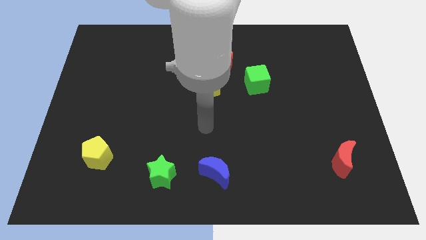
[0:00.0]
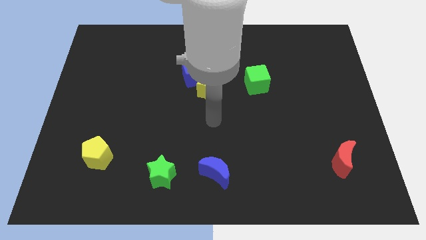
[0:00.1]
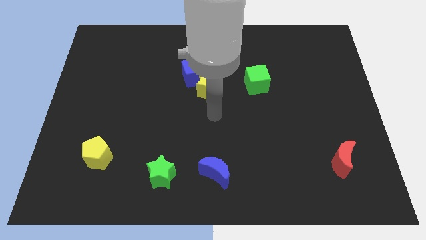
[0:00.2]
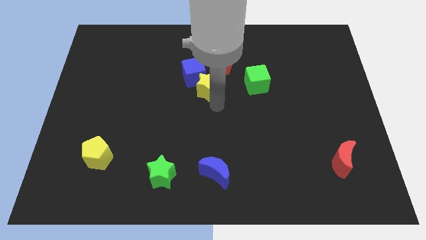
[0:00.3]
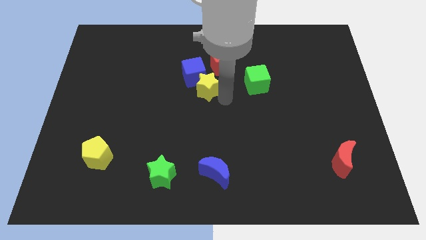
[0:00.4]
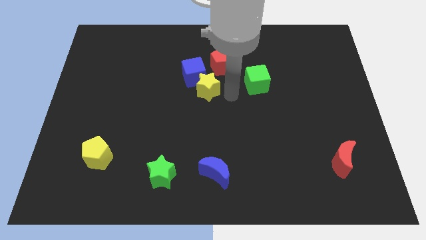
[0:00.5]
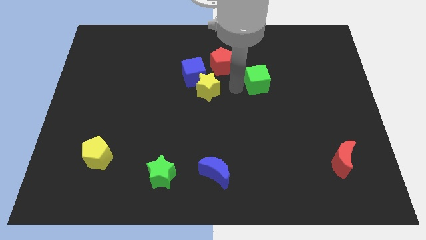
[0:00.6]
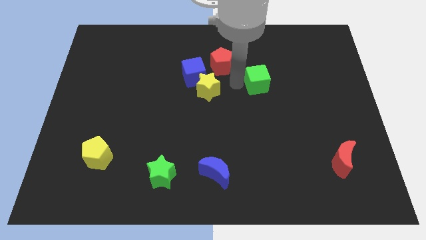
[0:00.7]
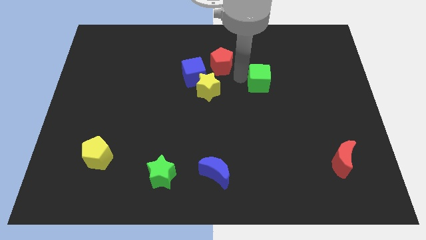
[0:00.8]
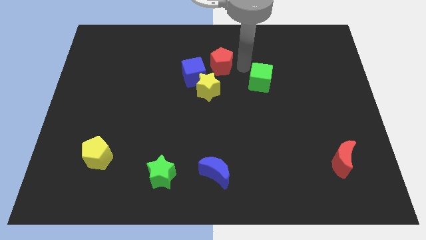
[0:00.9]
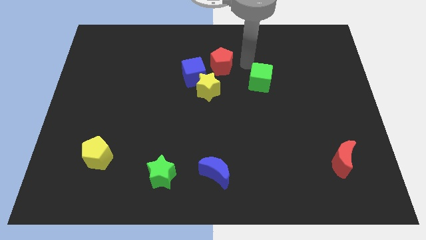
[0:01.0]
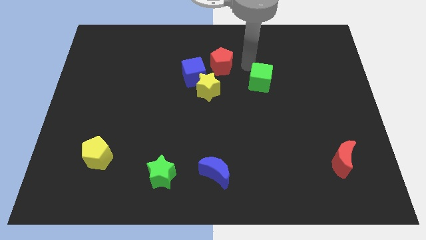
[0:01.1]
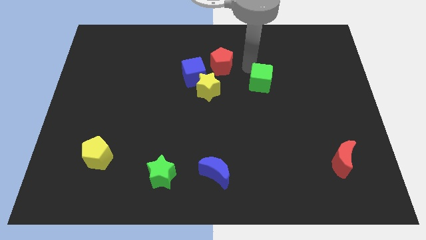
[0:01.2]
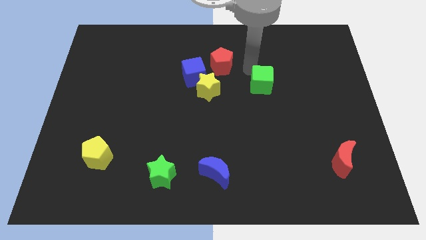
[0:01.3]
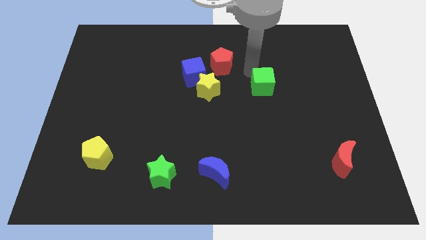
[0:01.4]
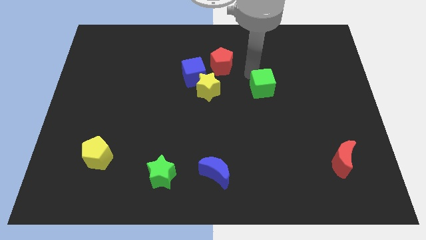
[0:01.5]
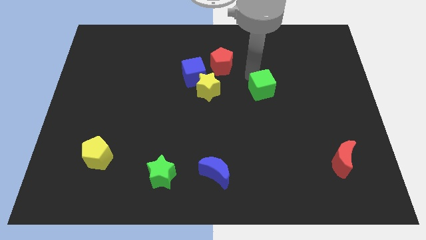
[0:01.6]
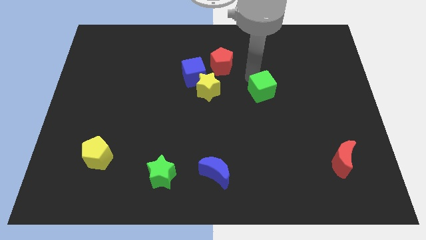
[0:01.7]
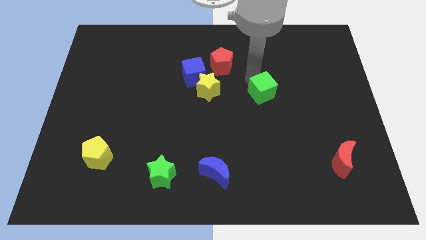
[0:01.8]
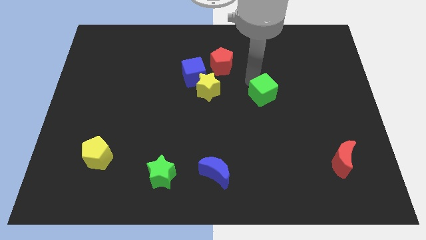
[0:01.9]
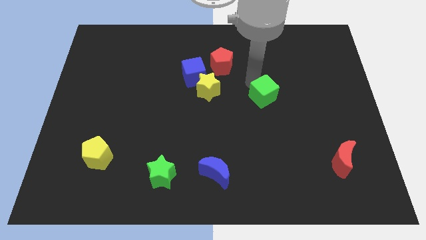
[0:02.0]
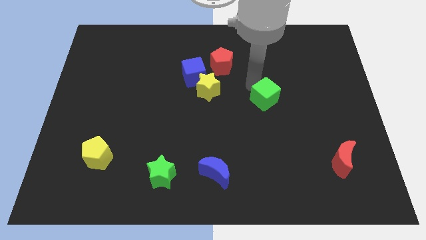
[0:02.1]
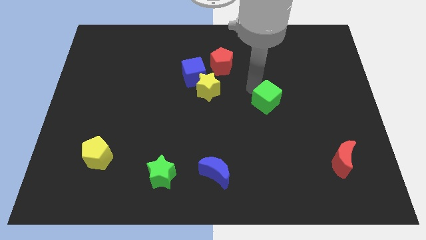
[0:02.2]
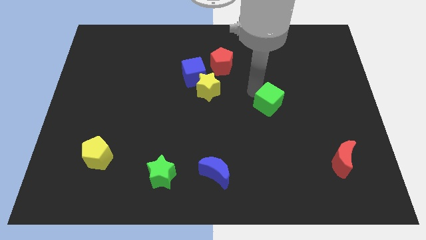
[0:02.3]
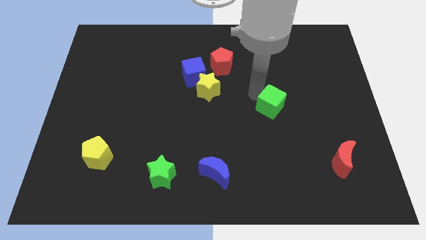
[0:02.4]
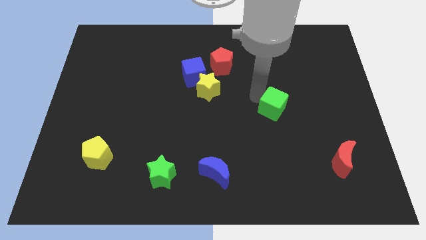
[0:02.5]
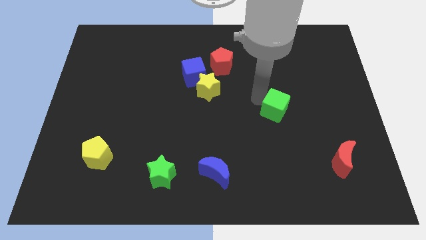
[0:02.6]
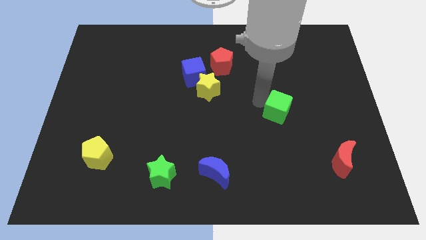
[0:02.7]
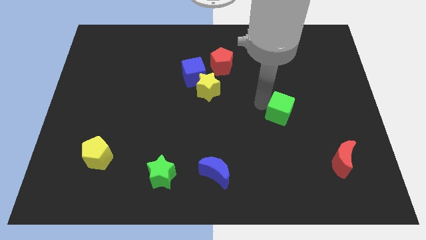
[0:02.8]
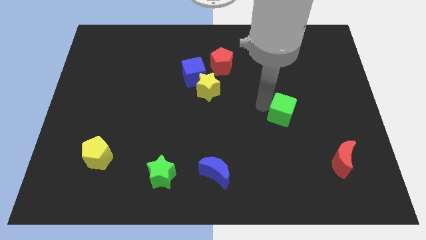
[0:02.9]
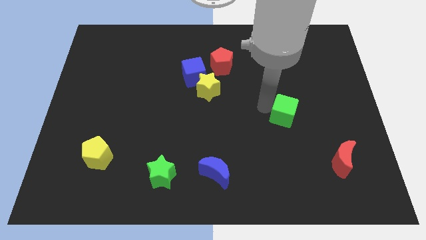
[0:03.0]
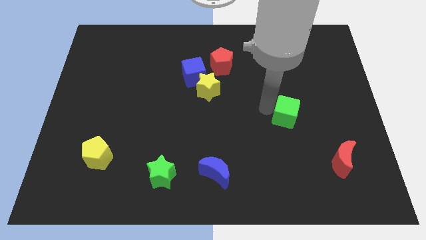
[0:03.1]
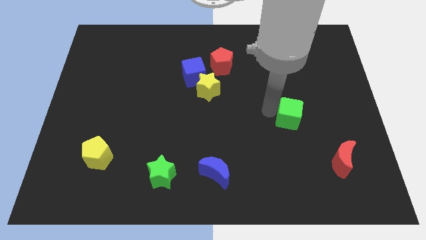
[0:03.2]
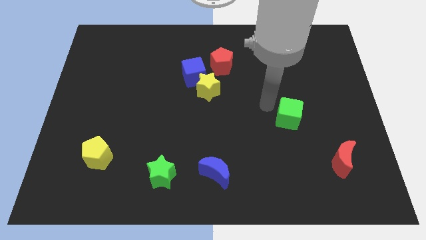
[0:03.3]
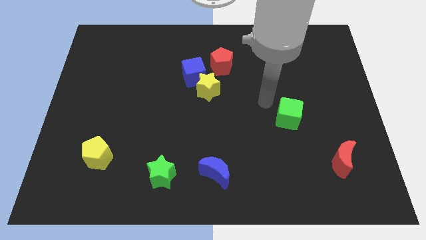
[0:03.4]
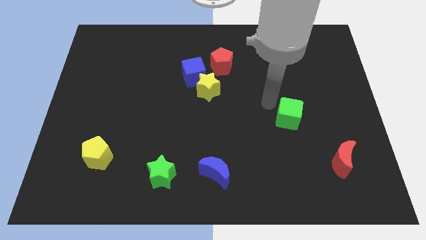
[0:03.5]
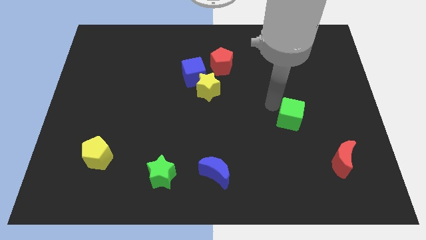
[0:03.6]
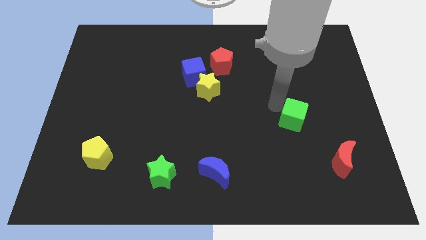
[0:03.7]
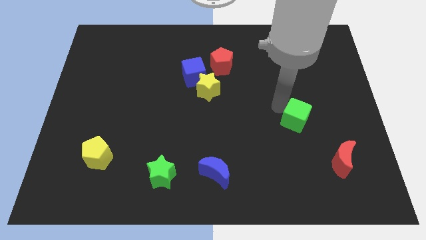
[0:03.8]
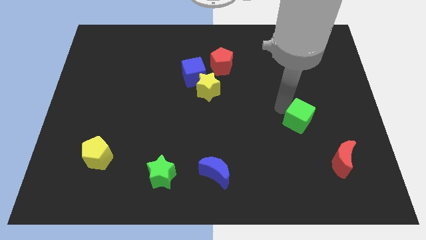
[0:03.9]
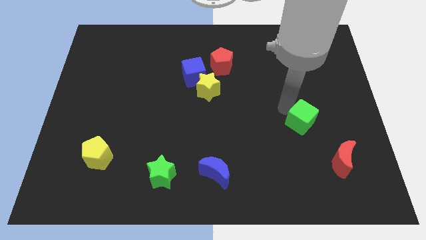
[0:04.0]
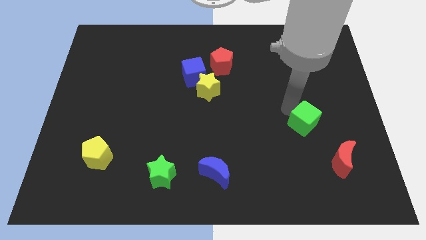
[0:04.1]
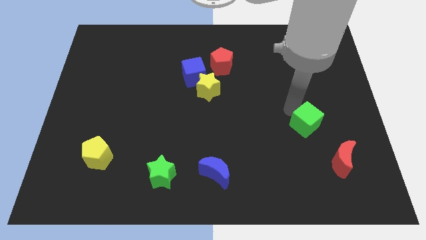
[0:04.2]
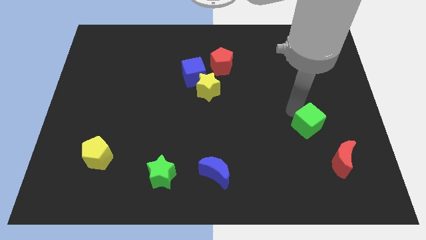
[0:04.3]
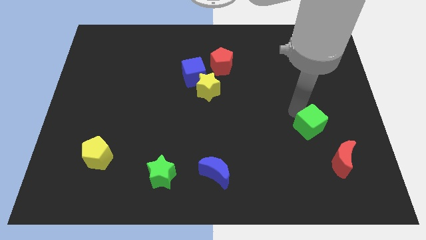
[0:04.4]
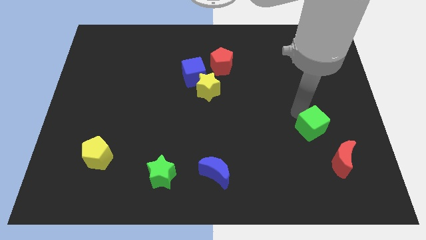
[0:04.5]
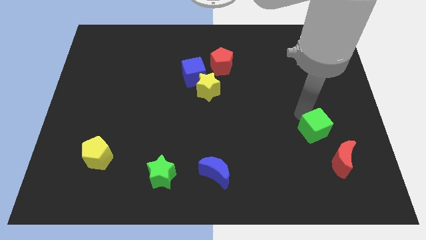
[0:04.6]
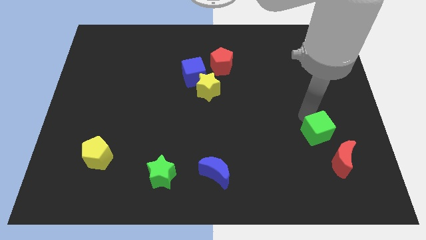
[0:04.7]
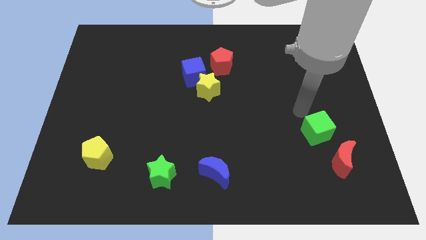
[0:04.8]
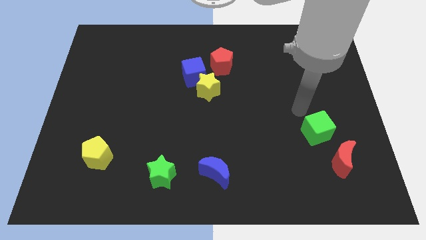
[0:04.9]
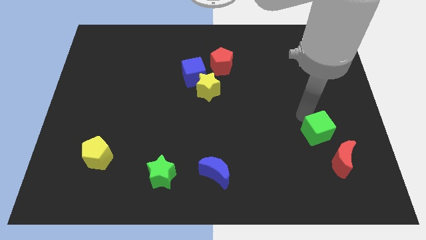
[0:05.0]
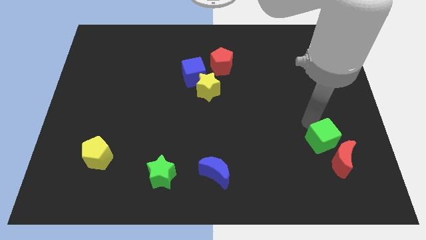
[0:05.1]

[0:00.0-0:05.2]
slide the green cube next to the red moon

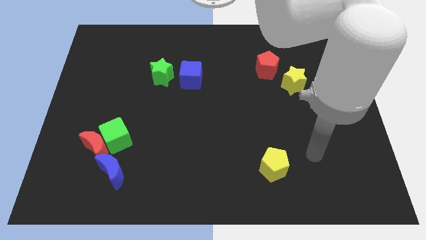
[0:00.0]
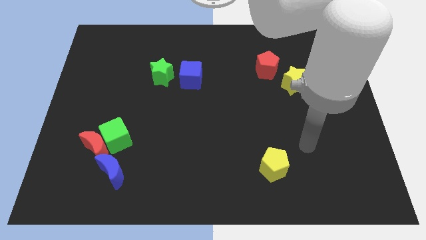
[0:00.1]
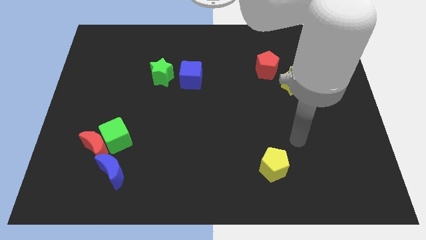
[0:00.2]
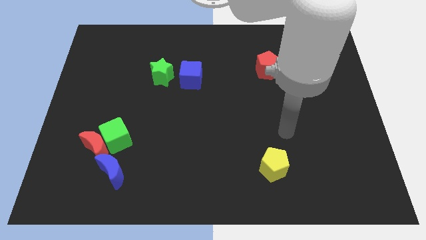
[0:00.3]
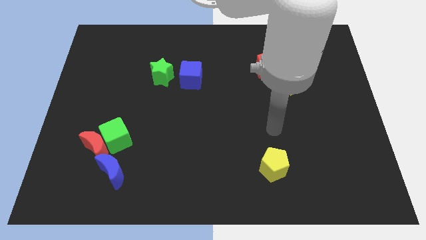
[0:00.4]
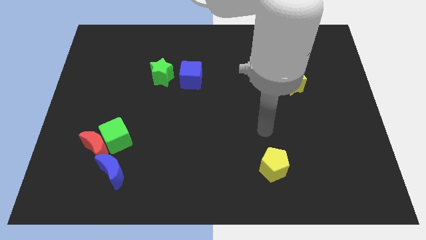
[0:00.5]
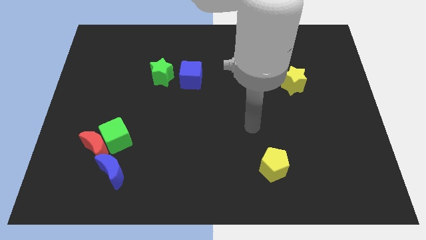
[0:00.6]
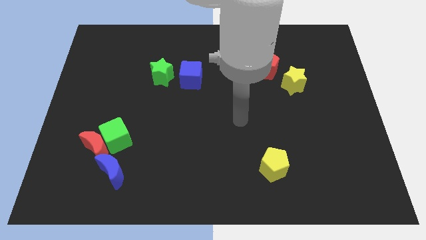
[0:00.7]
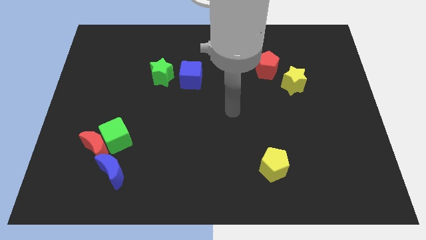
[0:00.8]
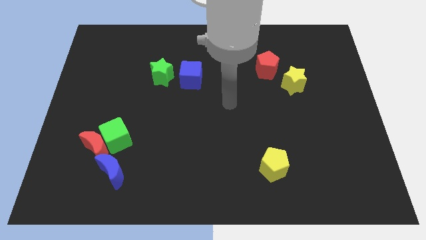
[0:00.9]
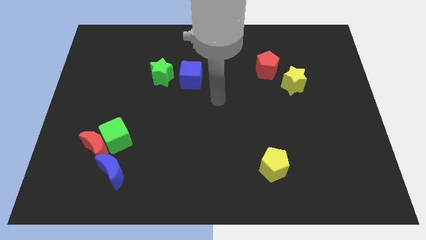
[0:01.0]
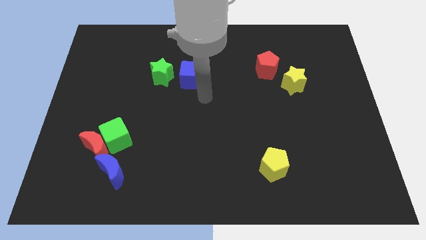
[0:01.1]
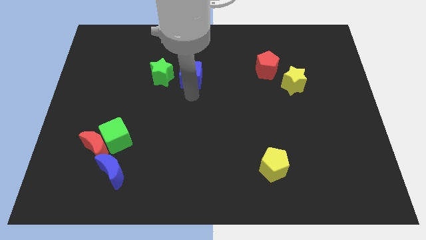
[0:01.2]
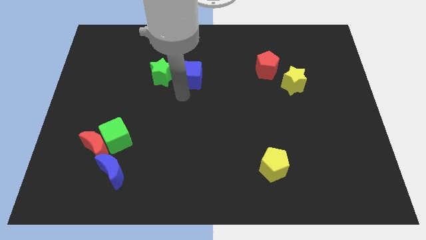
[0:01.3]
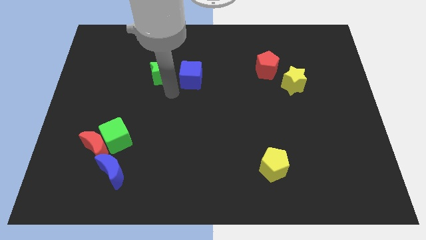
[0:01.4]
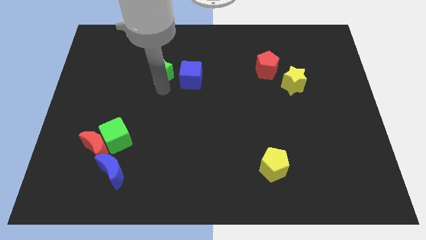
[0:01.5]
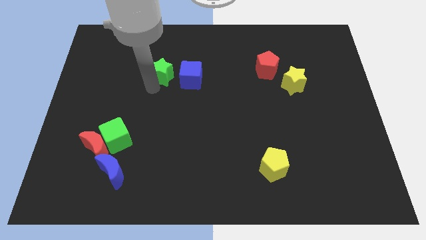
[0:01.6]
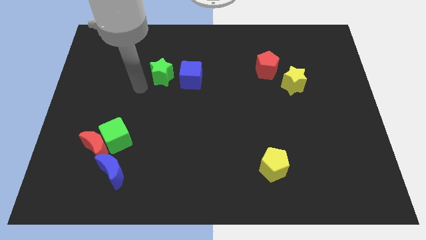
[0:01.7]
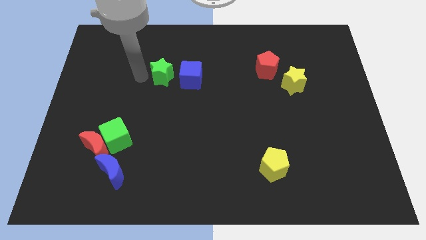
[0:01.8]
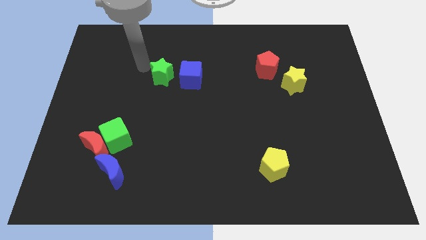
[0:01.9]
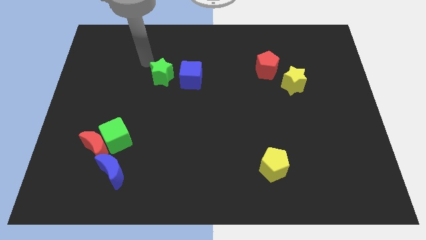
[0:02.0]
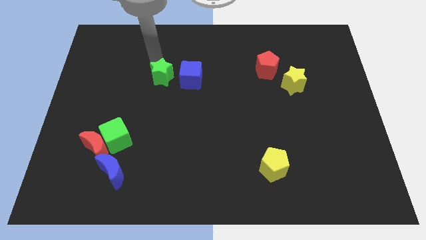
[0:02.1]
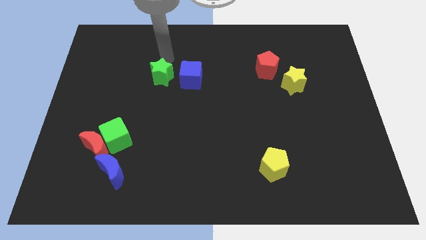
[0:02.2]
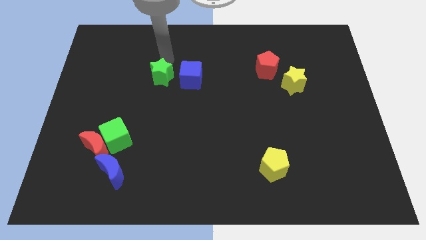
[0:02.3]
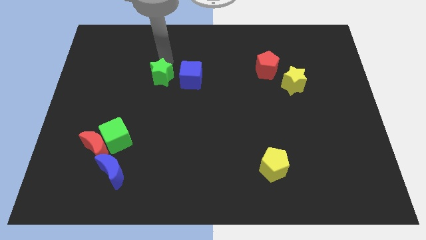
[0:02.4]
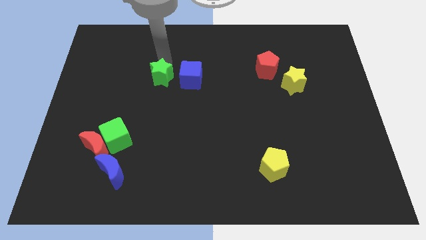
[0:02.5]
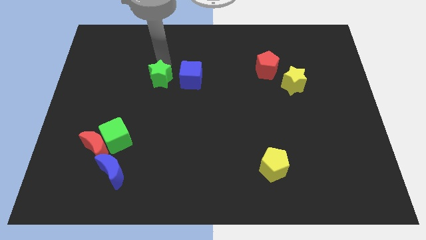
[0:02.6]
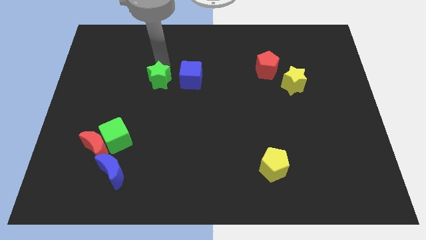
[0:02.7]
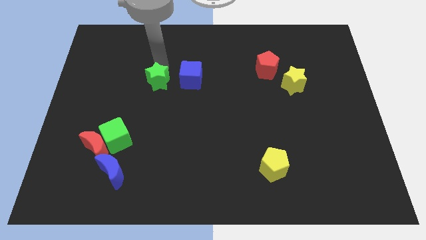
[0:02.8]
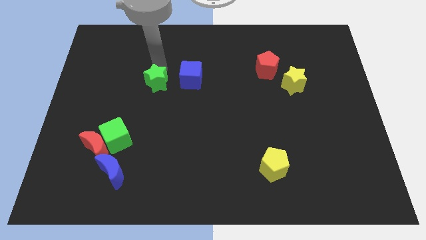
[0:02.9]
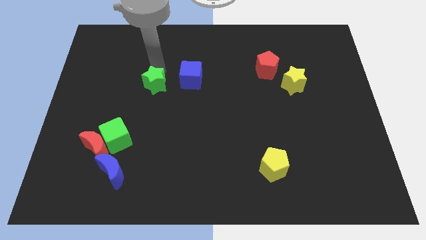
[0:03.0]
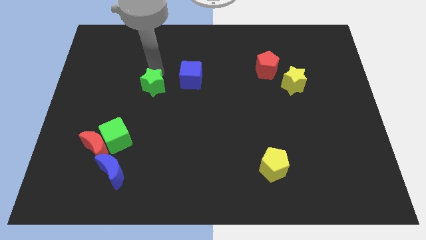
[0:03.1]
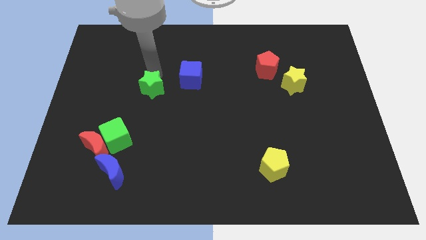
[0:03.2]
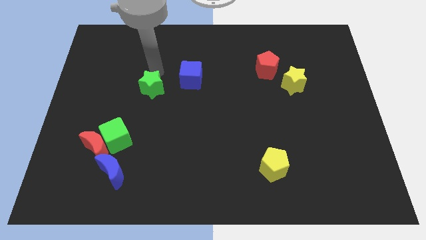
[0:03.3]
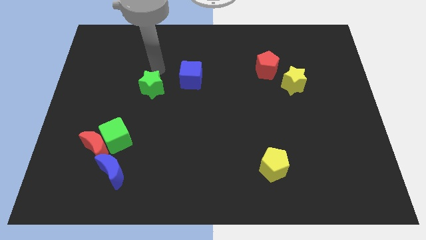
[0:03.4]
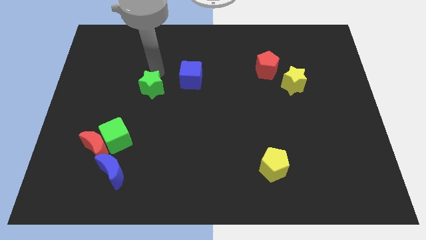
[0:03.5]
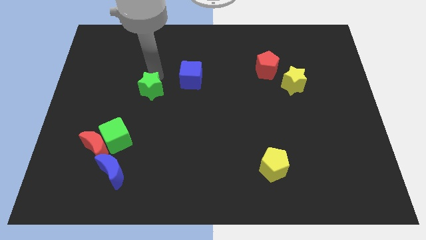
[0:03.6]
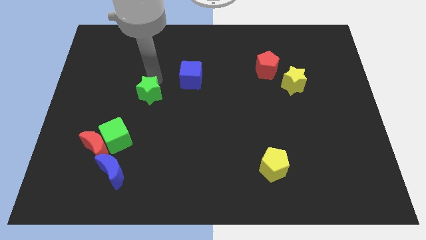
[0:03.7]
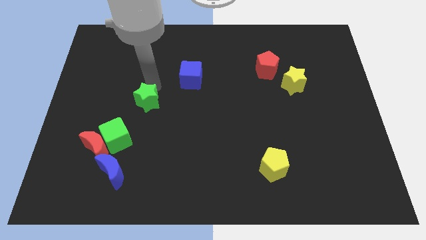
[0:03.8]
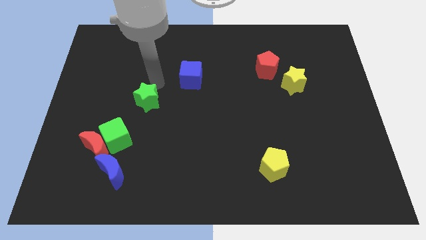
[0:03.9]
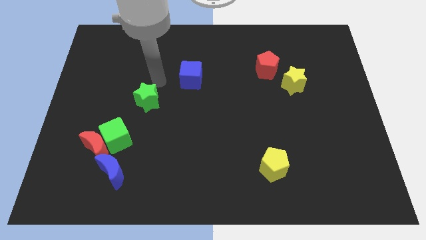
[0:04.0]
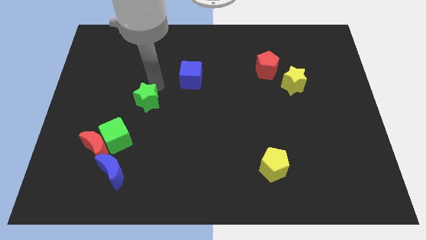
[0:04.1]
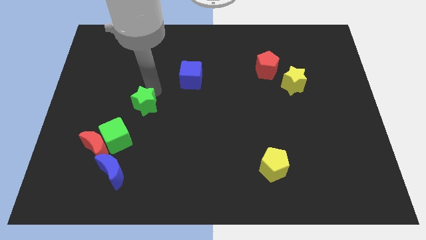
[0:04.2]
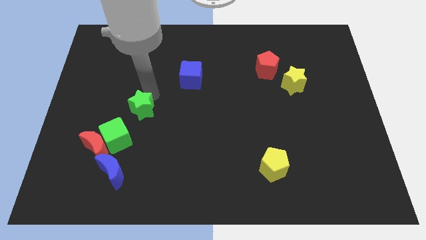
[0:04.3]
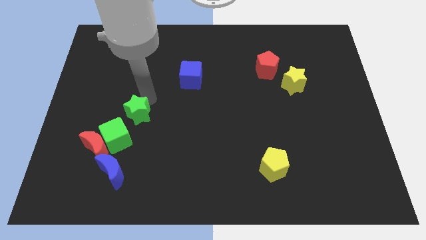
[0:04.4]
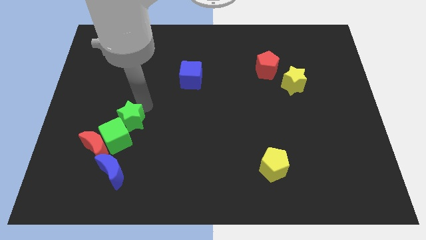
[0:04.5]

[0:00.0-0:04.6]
push the green star next to the green cube
